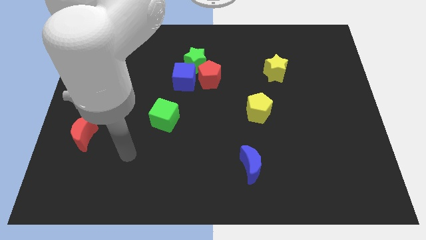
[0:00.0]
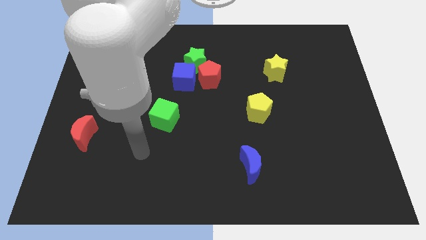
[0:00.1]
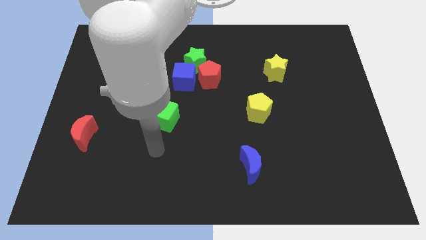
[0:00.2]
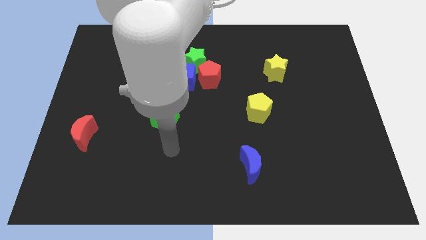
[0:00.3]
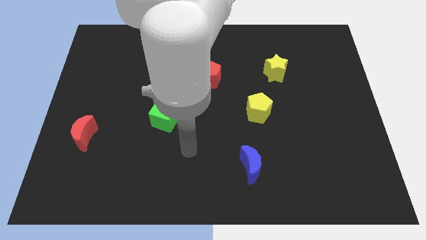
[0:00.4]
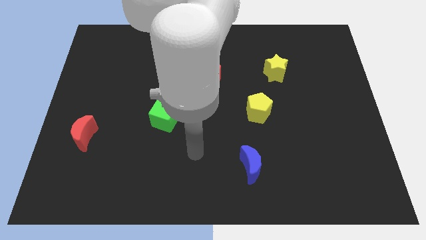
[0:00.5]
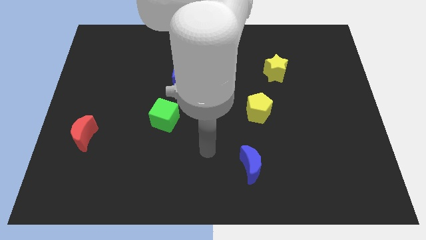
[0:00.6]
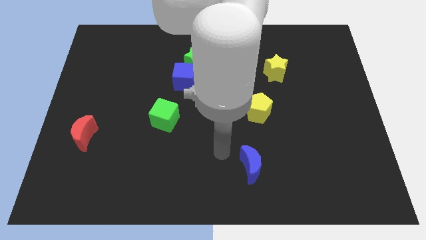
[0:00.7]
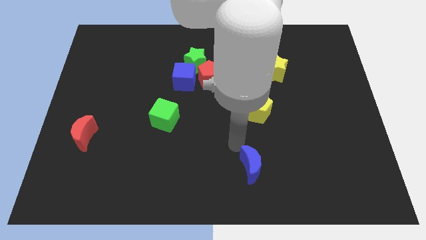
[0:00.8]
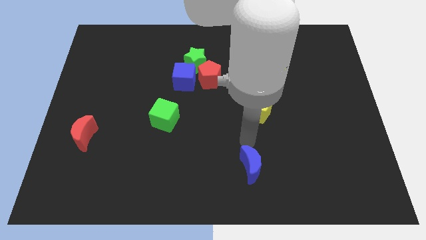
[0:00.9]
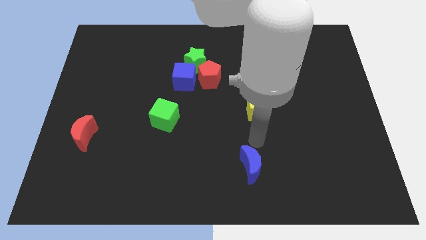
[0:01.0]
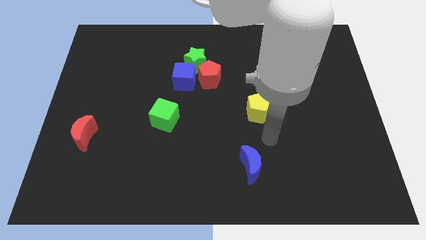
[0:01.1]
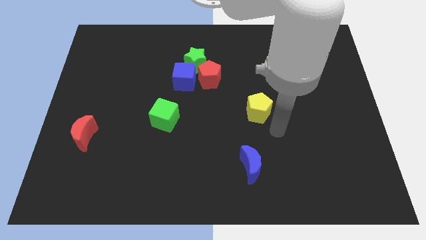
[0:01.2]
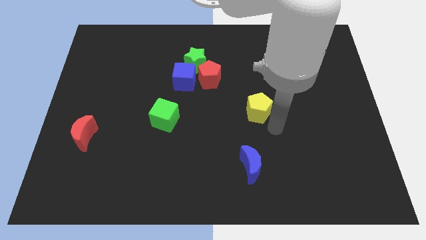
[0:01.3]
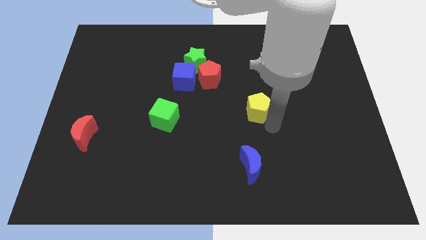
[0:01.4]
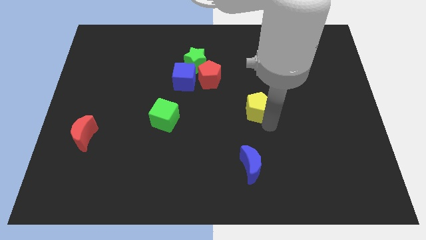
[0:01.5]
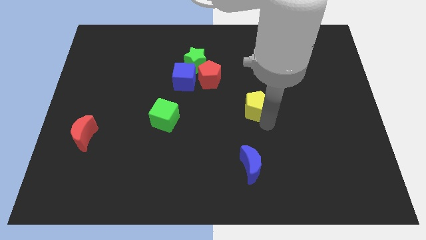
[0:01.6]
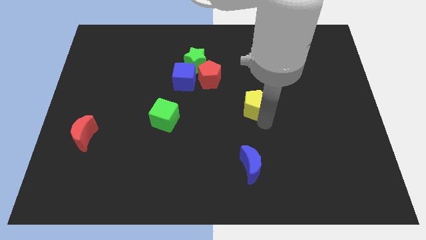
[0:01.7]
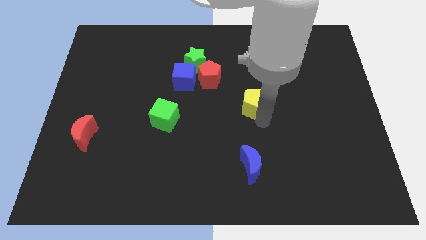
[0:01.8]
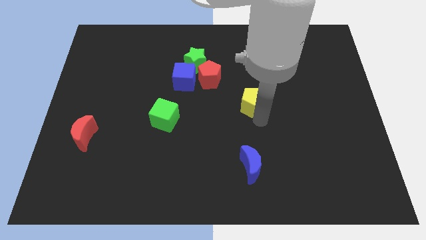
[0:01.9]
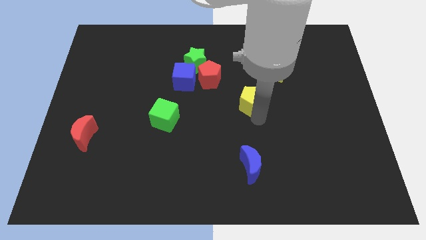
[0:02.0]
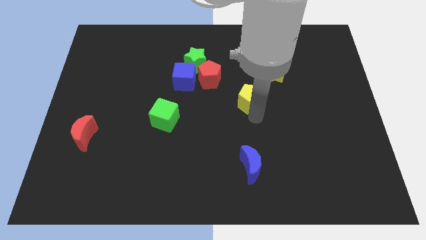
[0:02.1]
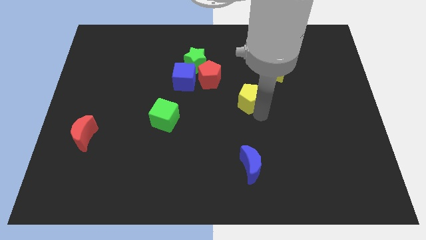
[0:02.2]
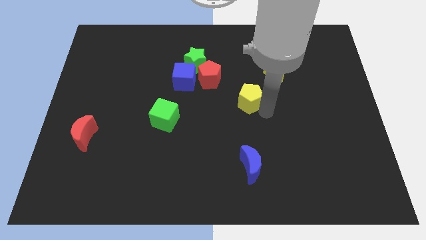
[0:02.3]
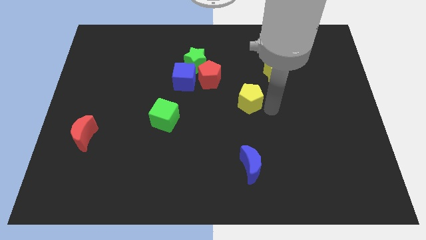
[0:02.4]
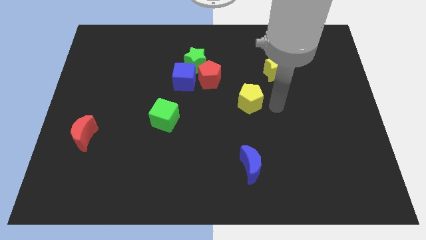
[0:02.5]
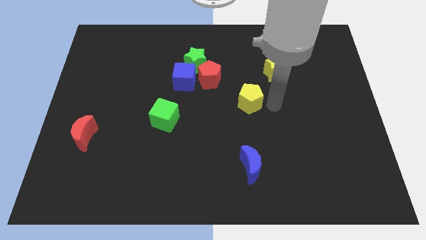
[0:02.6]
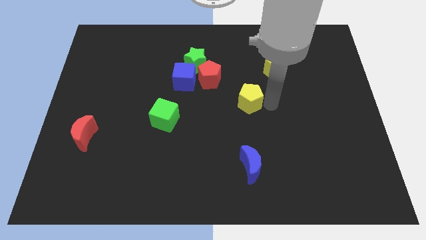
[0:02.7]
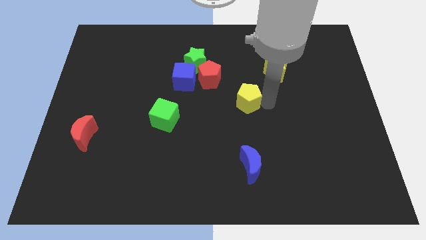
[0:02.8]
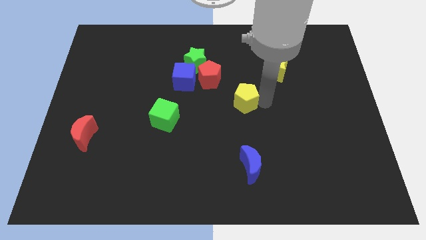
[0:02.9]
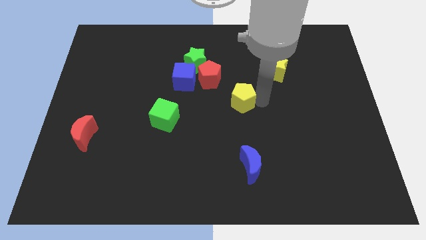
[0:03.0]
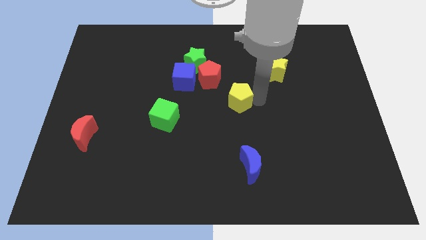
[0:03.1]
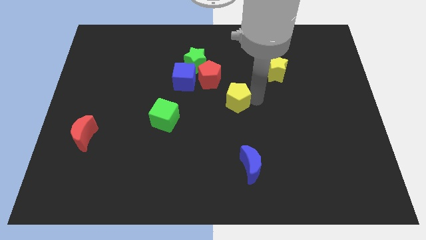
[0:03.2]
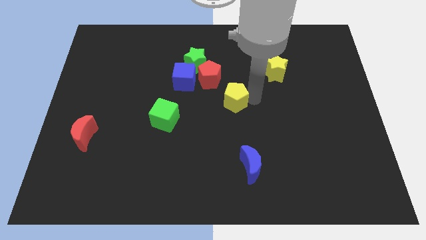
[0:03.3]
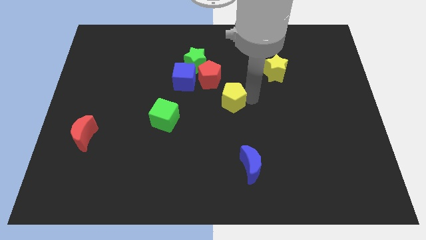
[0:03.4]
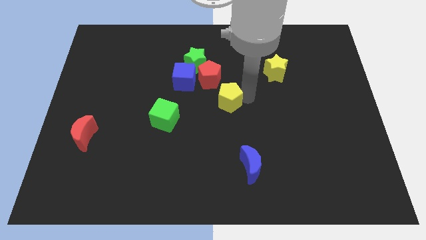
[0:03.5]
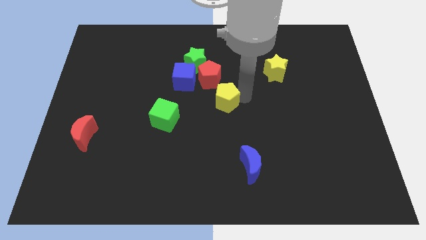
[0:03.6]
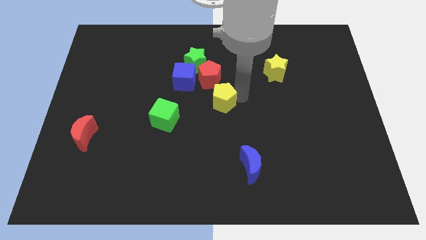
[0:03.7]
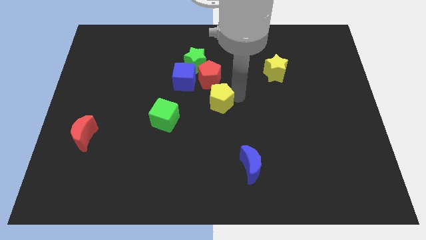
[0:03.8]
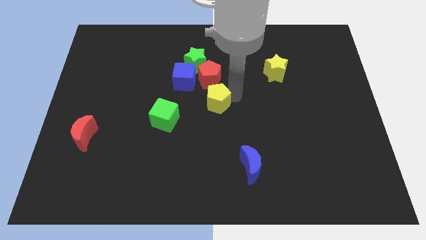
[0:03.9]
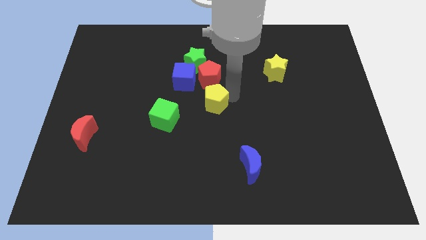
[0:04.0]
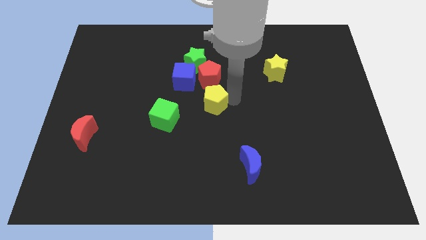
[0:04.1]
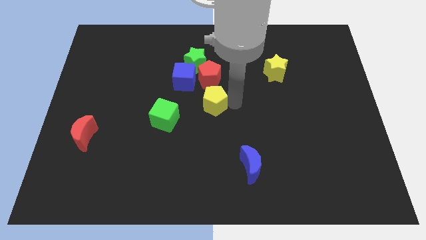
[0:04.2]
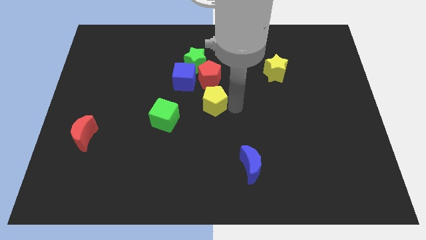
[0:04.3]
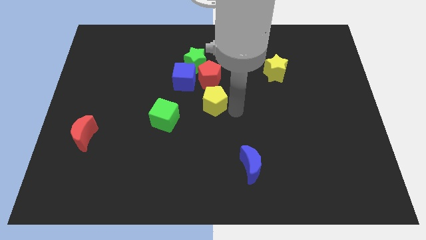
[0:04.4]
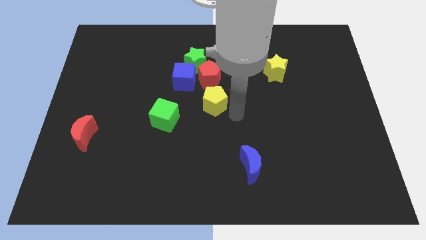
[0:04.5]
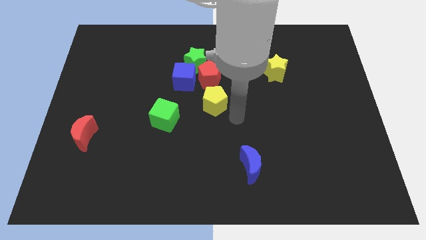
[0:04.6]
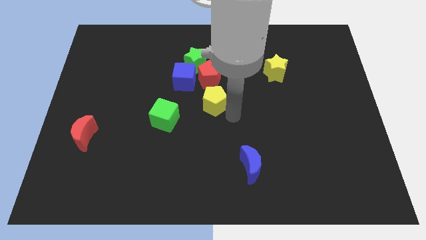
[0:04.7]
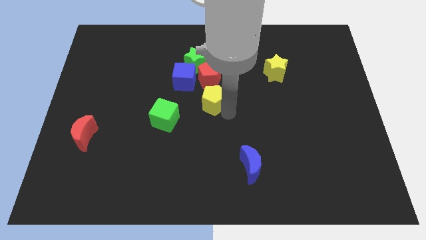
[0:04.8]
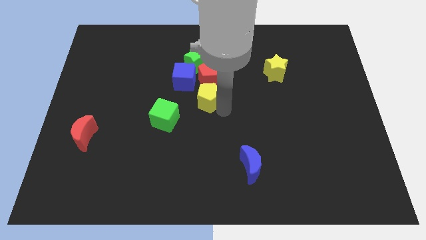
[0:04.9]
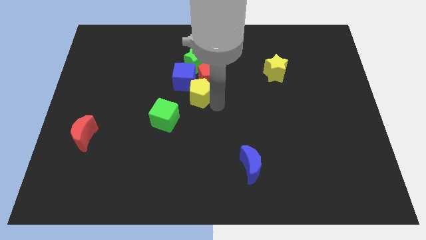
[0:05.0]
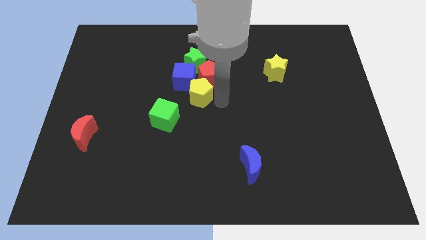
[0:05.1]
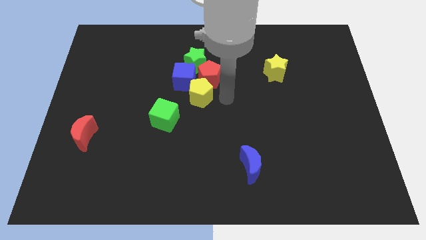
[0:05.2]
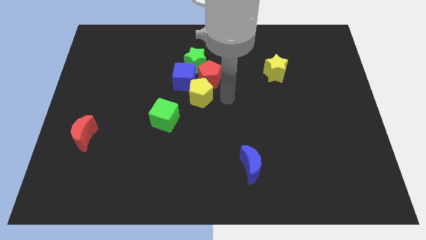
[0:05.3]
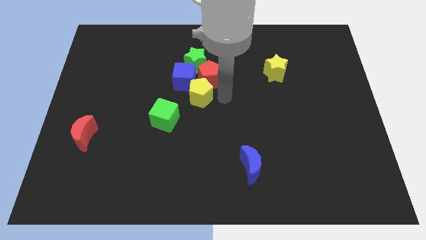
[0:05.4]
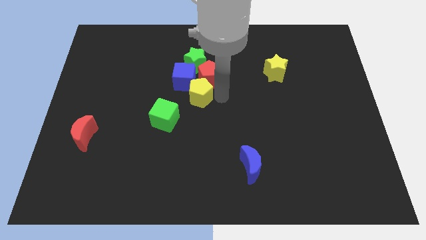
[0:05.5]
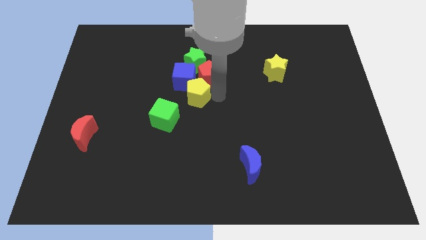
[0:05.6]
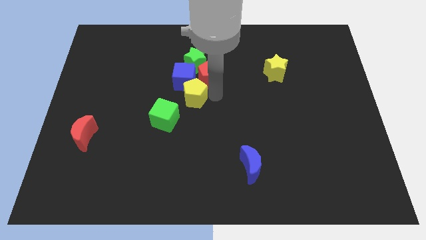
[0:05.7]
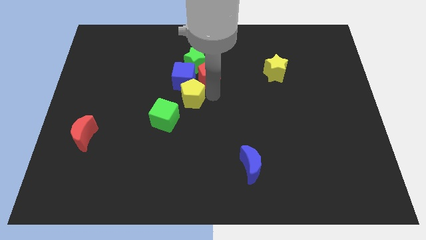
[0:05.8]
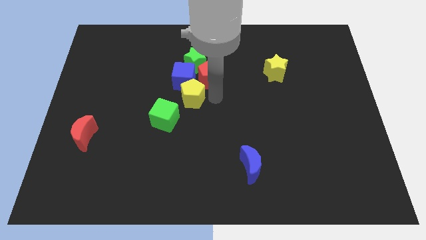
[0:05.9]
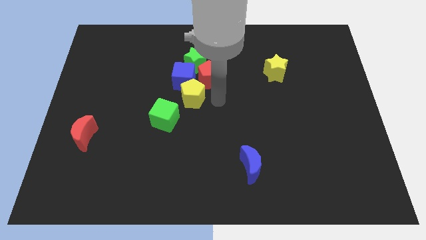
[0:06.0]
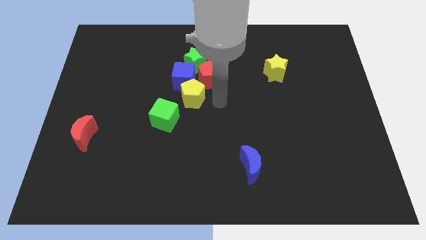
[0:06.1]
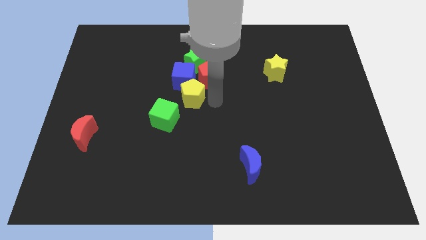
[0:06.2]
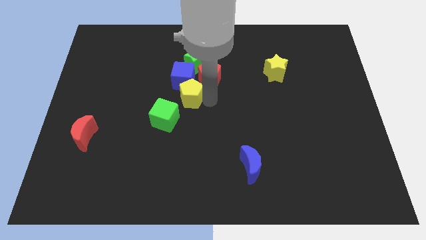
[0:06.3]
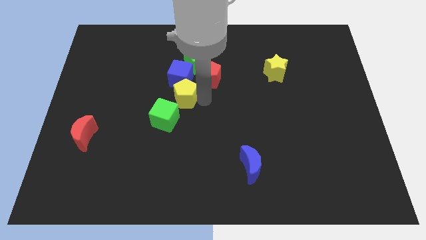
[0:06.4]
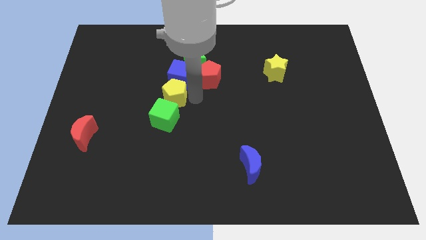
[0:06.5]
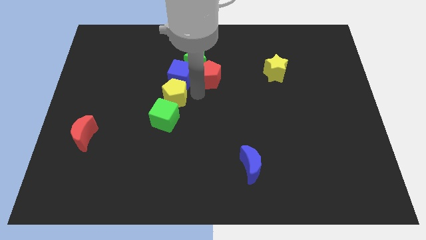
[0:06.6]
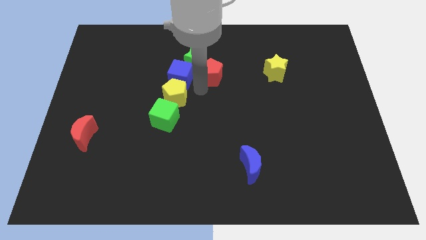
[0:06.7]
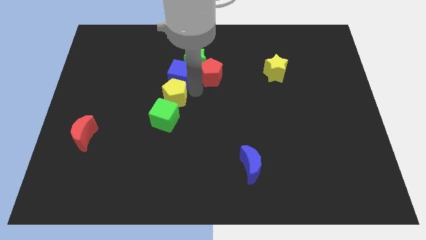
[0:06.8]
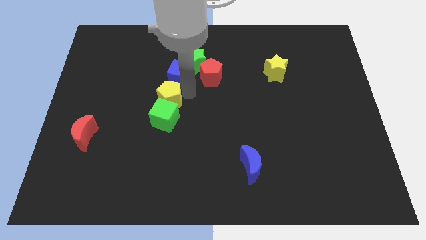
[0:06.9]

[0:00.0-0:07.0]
slide the yellow pentagon to the left

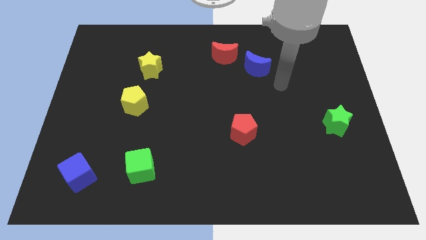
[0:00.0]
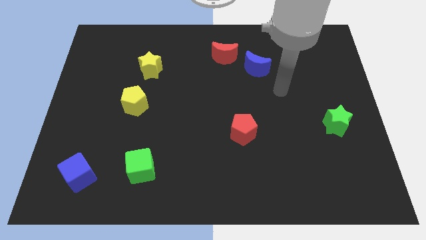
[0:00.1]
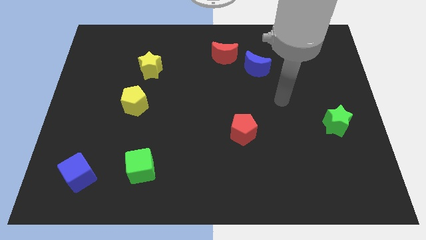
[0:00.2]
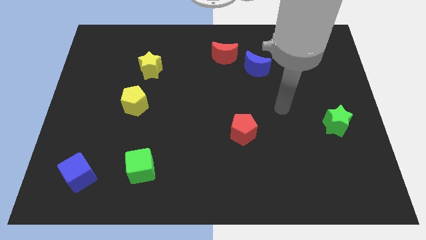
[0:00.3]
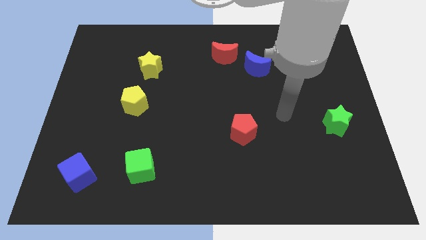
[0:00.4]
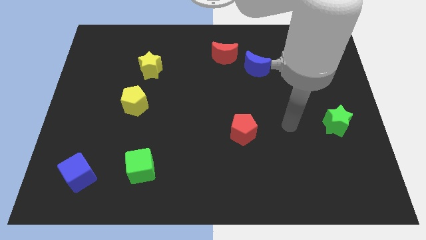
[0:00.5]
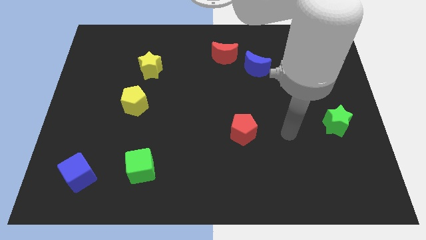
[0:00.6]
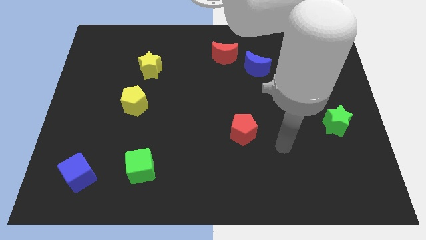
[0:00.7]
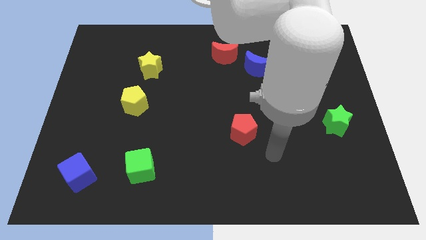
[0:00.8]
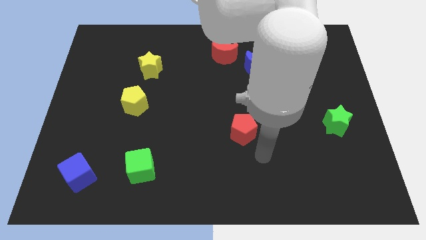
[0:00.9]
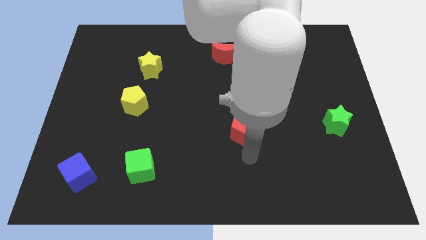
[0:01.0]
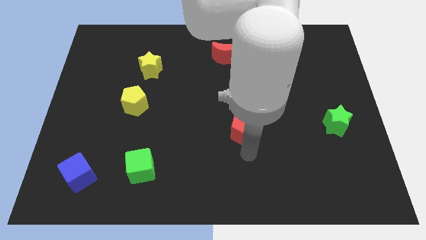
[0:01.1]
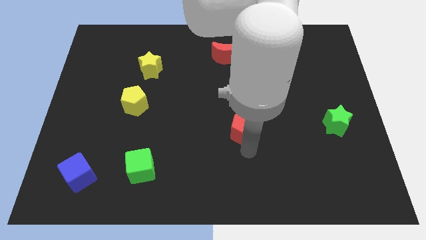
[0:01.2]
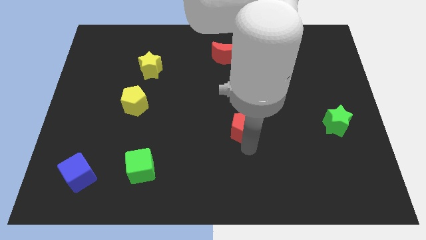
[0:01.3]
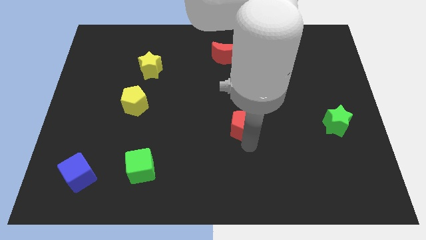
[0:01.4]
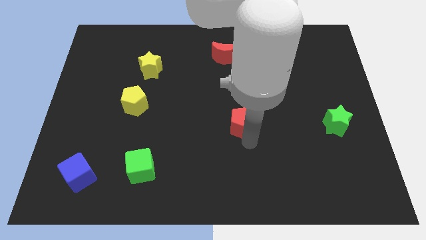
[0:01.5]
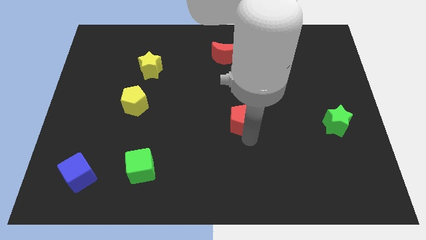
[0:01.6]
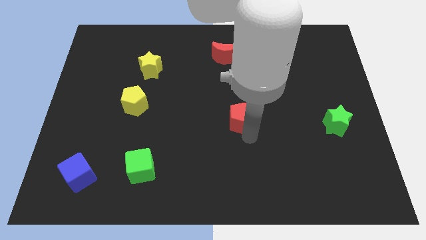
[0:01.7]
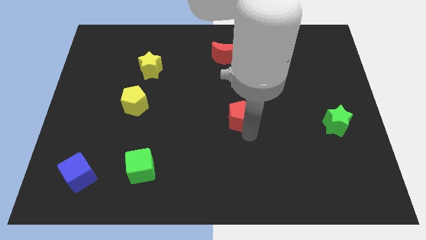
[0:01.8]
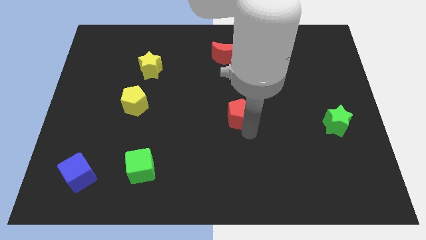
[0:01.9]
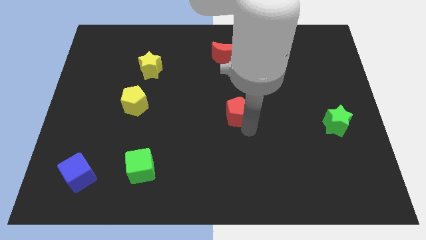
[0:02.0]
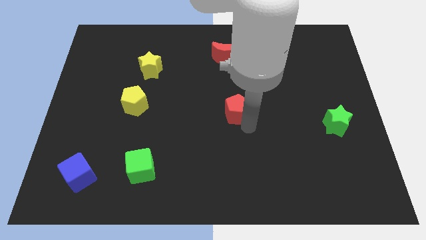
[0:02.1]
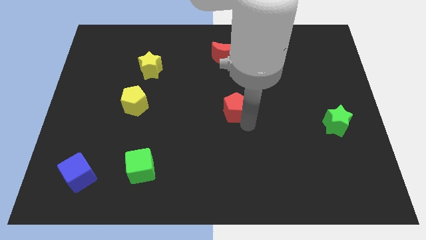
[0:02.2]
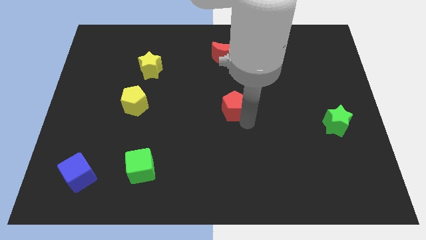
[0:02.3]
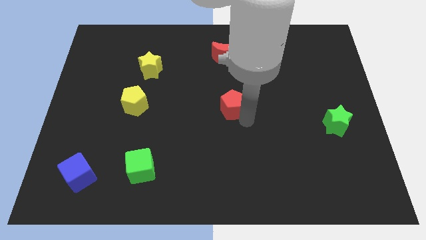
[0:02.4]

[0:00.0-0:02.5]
slightly slide the red pentagon up
